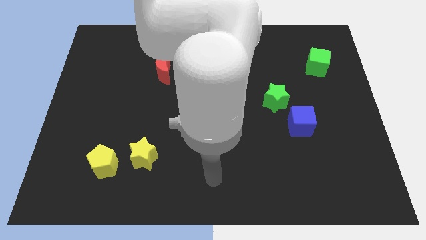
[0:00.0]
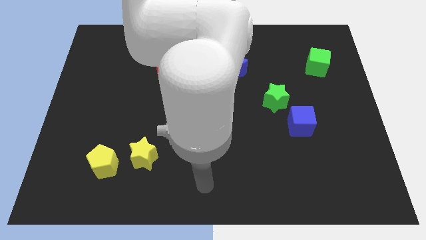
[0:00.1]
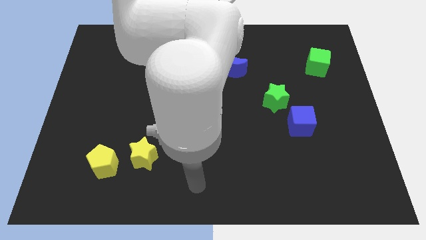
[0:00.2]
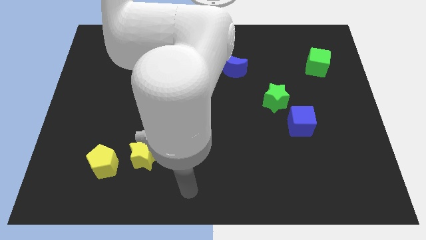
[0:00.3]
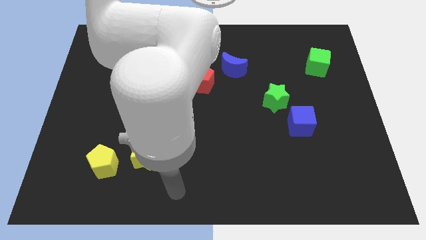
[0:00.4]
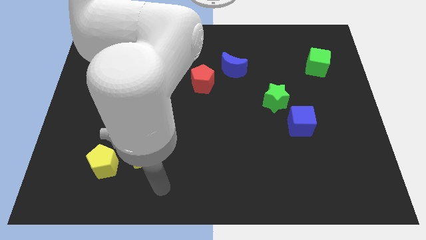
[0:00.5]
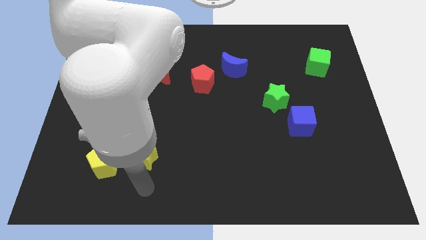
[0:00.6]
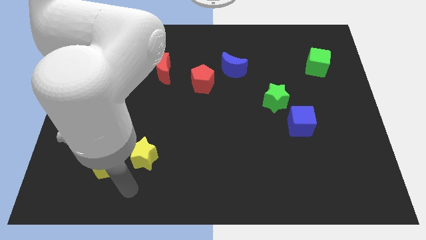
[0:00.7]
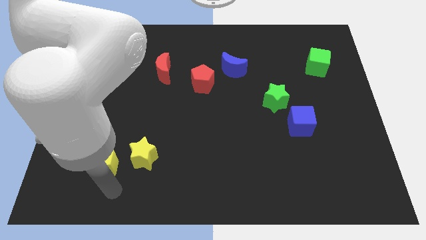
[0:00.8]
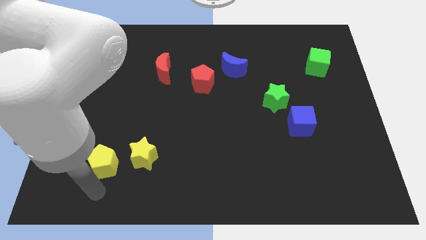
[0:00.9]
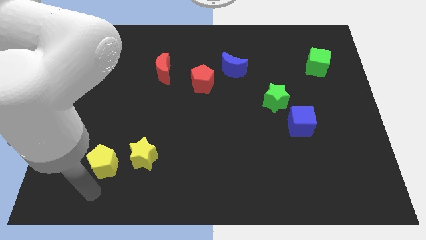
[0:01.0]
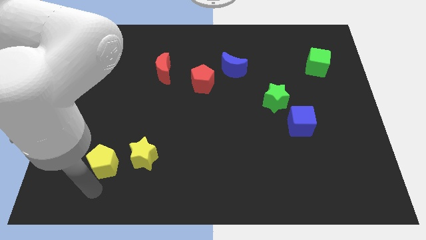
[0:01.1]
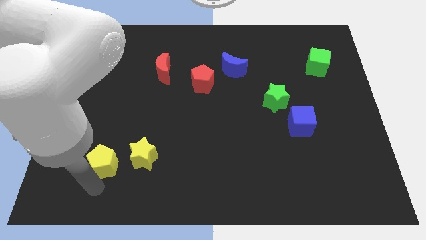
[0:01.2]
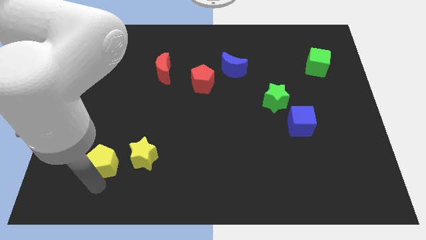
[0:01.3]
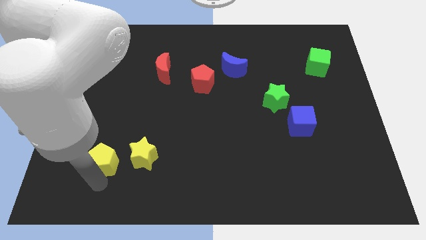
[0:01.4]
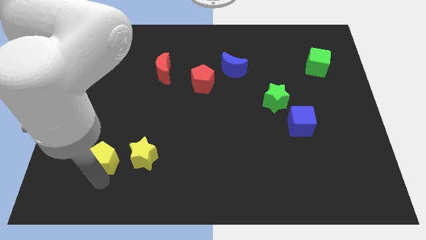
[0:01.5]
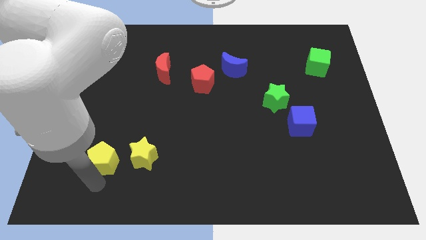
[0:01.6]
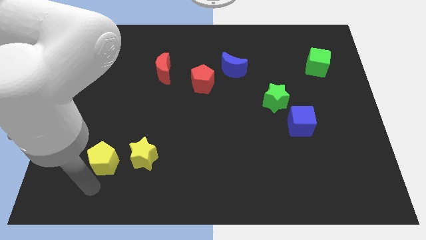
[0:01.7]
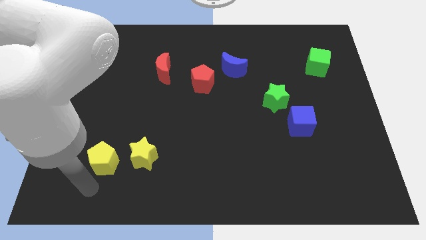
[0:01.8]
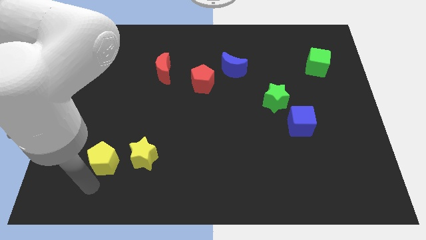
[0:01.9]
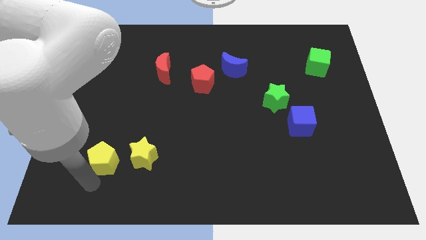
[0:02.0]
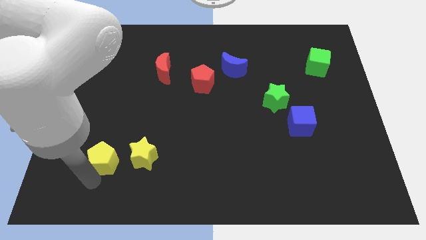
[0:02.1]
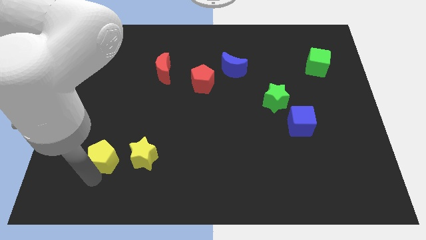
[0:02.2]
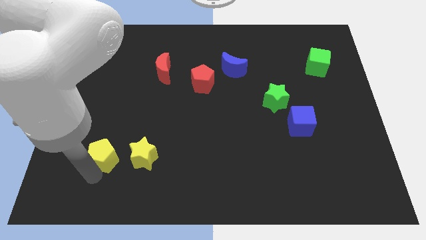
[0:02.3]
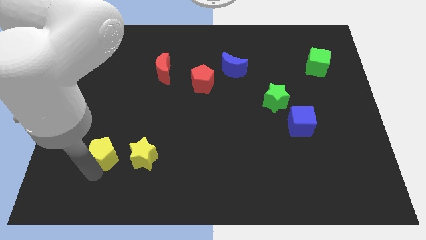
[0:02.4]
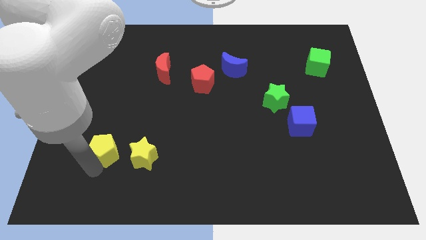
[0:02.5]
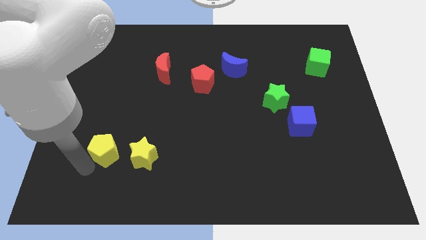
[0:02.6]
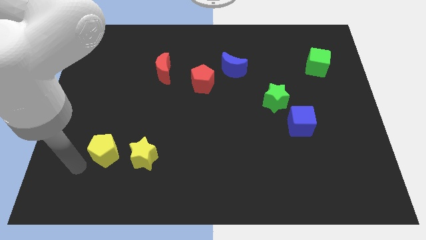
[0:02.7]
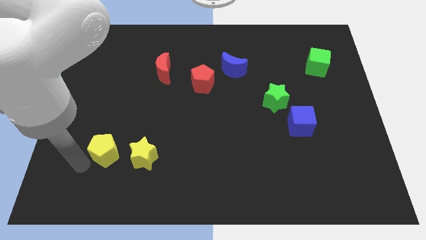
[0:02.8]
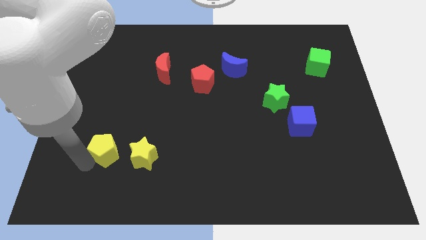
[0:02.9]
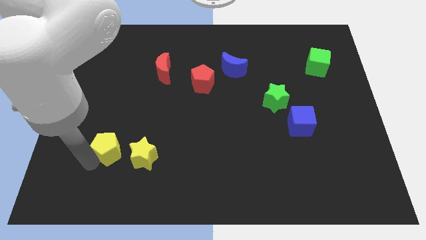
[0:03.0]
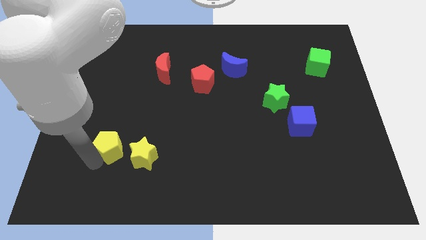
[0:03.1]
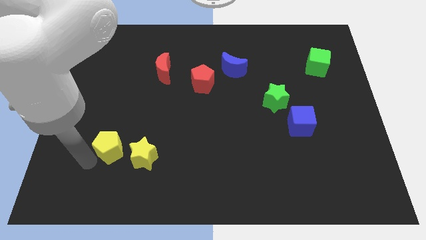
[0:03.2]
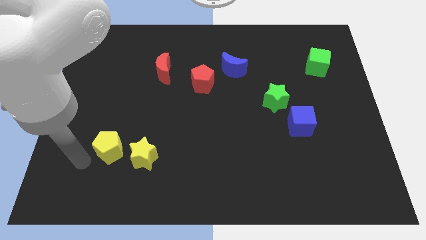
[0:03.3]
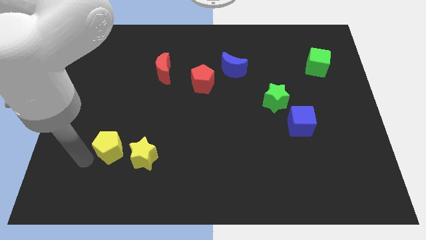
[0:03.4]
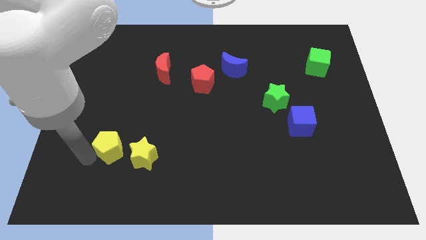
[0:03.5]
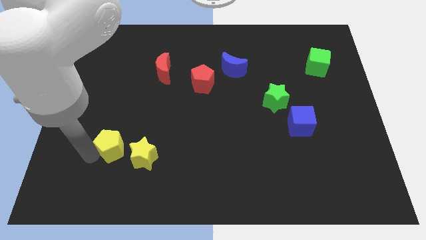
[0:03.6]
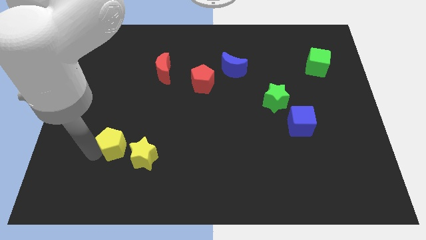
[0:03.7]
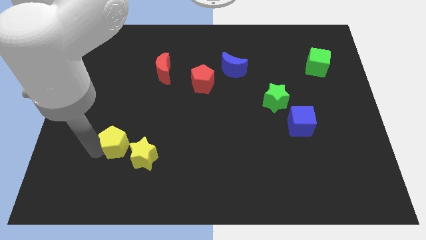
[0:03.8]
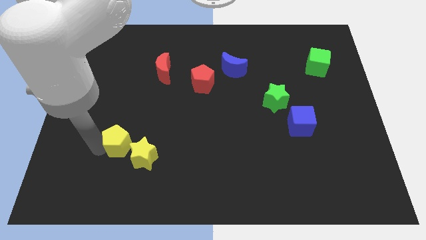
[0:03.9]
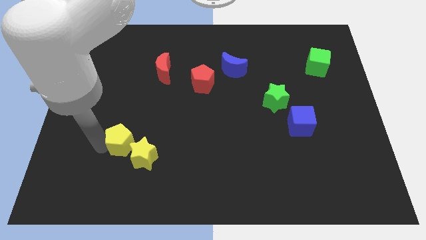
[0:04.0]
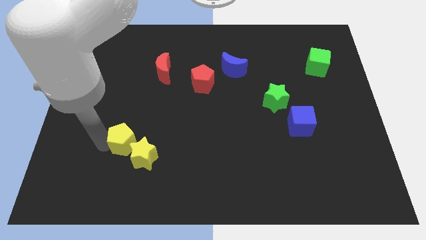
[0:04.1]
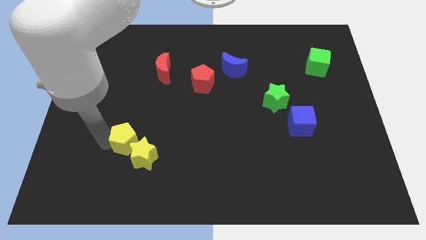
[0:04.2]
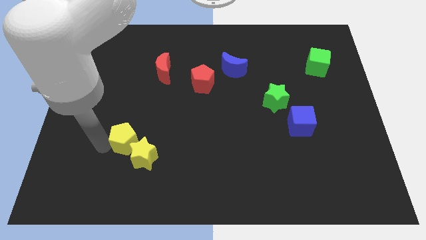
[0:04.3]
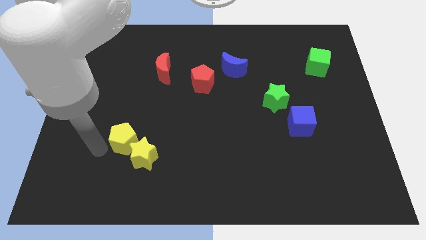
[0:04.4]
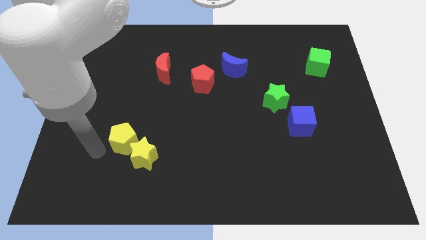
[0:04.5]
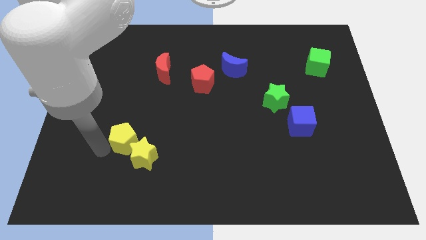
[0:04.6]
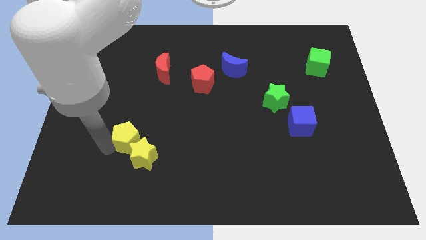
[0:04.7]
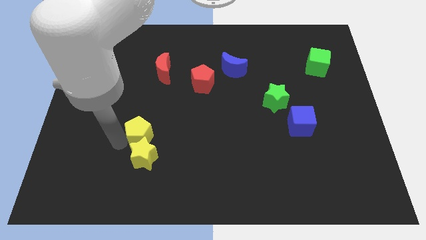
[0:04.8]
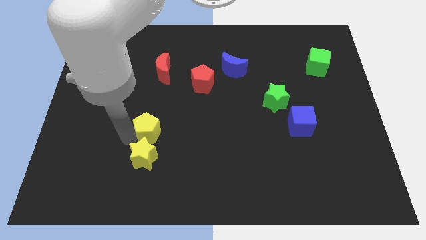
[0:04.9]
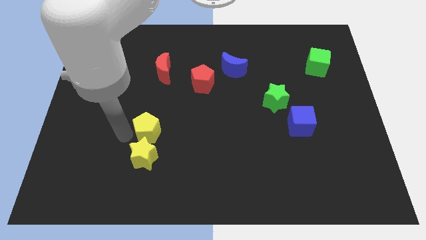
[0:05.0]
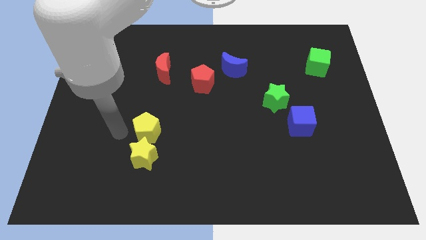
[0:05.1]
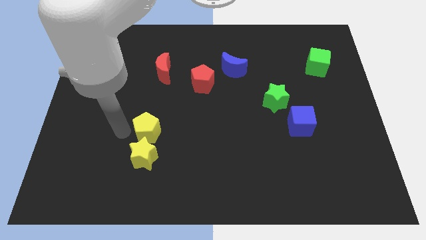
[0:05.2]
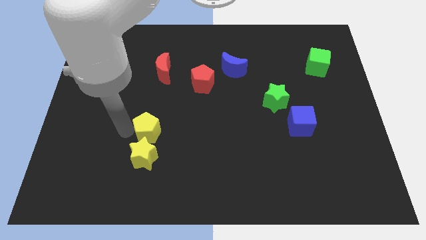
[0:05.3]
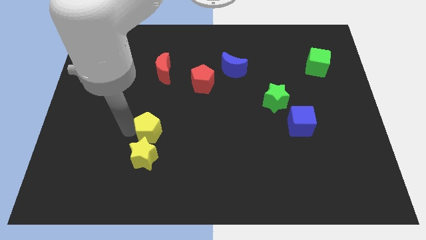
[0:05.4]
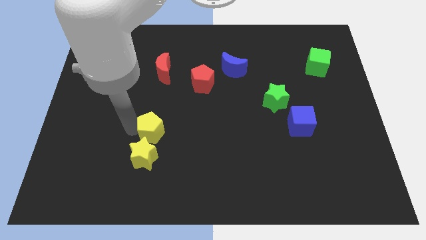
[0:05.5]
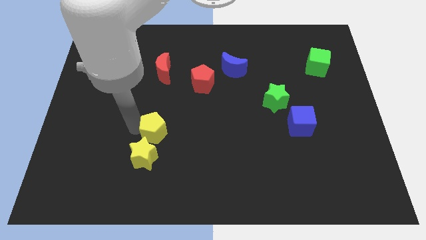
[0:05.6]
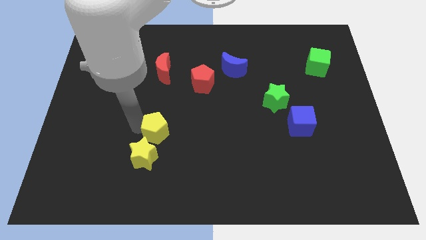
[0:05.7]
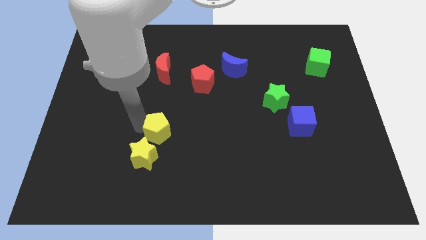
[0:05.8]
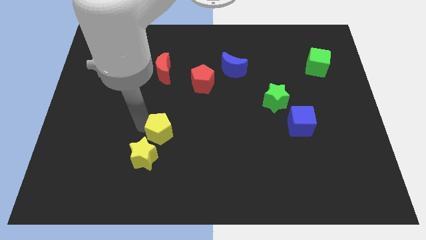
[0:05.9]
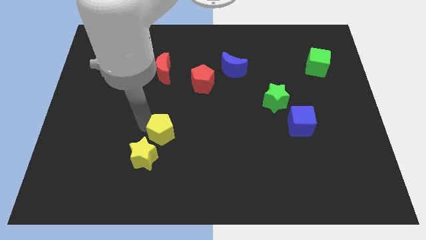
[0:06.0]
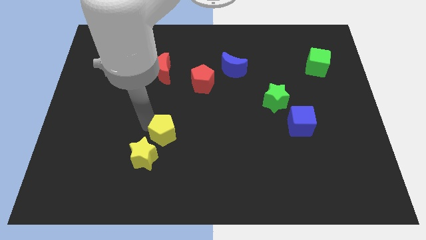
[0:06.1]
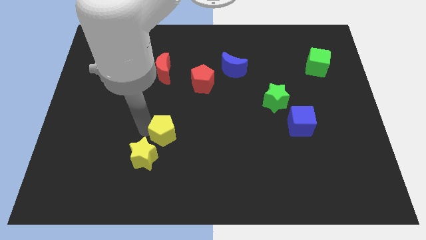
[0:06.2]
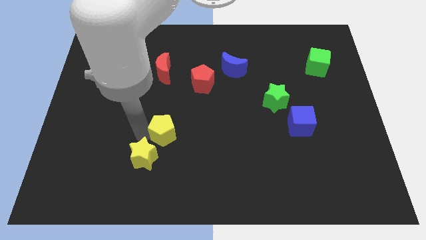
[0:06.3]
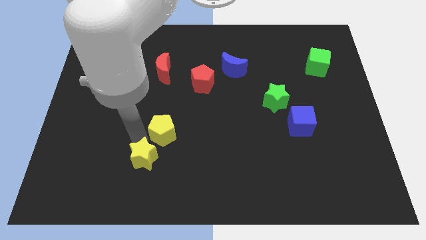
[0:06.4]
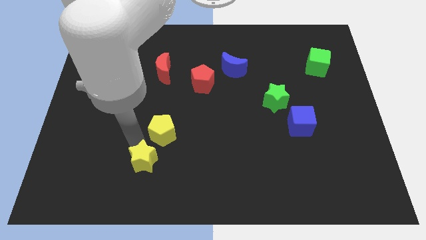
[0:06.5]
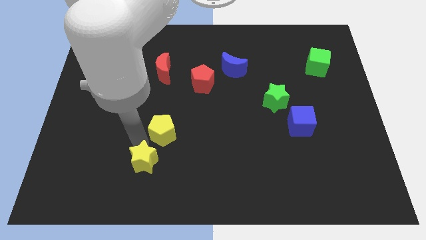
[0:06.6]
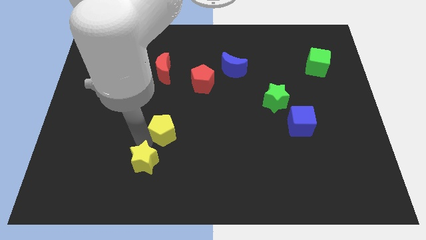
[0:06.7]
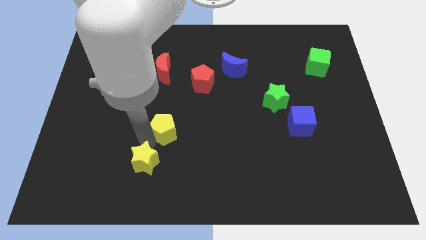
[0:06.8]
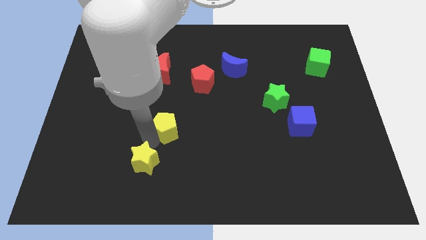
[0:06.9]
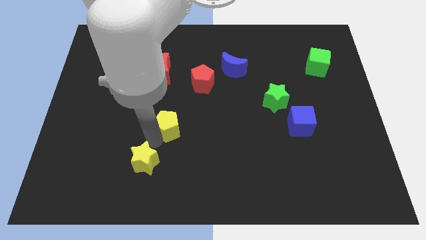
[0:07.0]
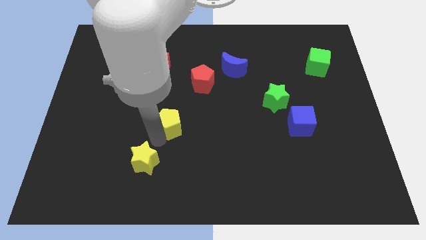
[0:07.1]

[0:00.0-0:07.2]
put the yellow pentagon to the middle

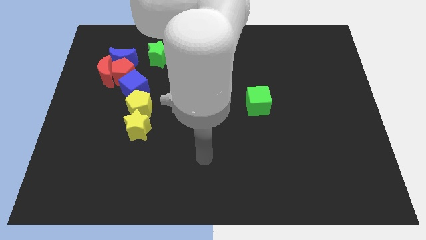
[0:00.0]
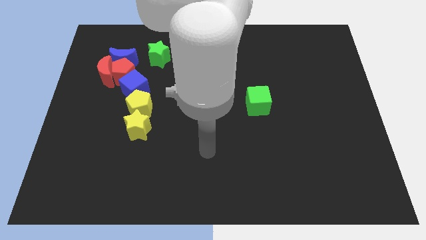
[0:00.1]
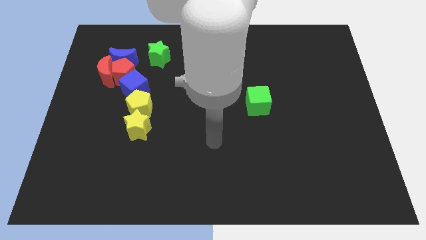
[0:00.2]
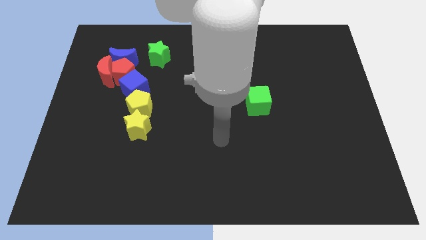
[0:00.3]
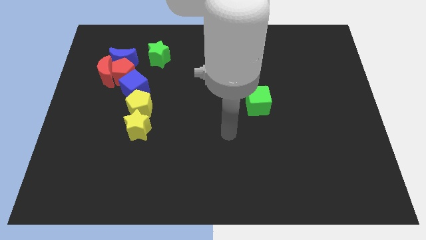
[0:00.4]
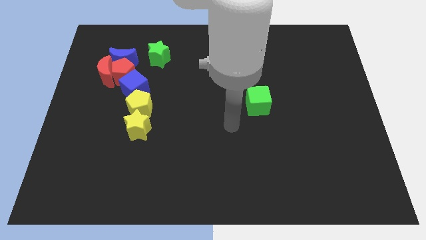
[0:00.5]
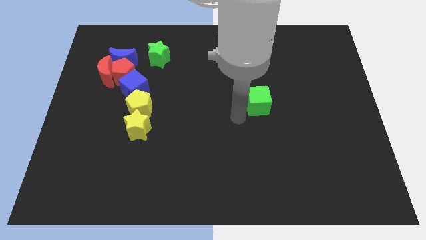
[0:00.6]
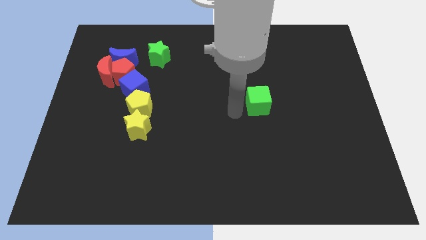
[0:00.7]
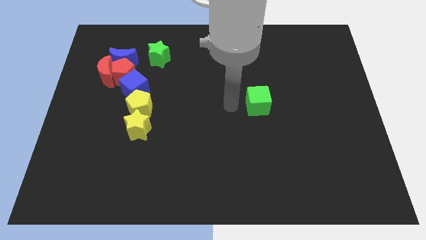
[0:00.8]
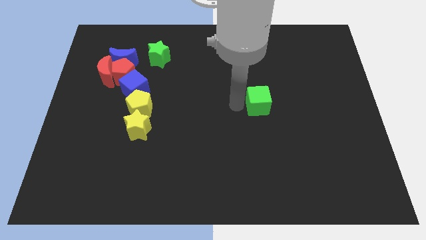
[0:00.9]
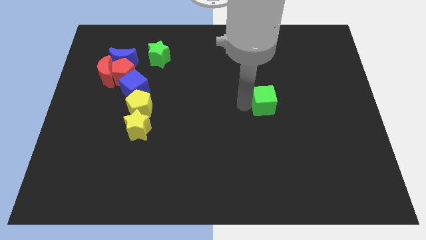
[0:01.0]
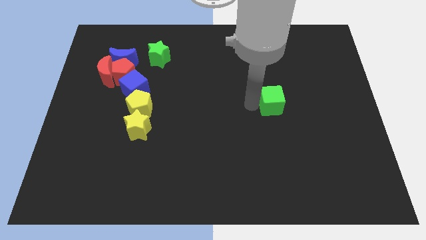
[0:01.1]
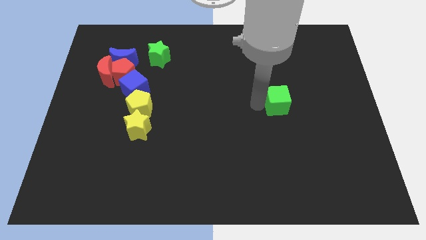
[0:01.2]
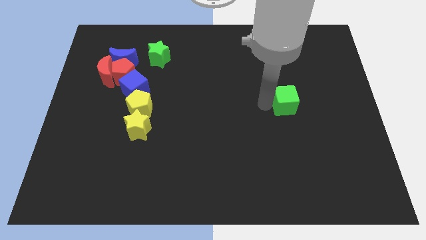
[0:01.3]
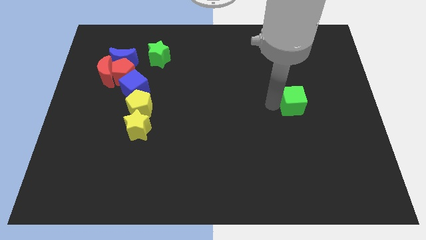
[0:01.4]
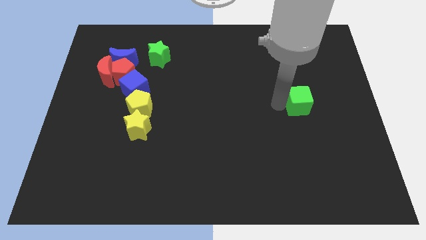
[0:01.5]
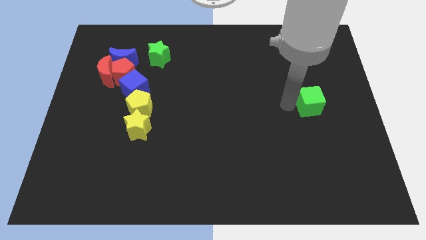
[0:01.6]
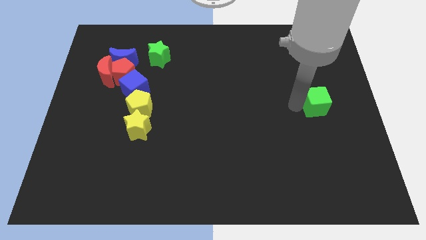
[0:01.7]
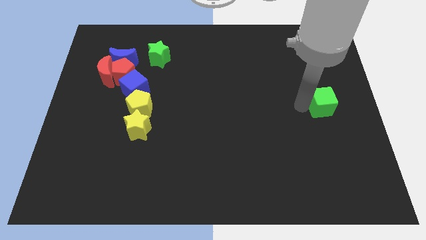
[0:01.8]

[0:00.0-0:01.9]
move the green cube to the right side of the board
